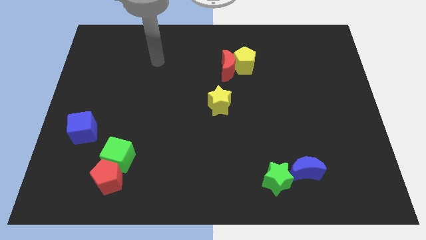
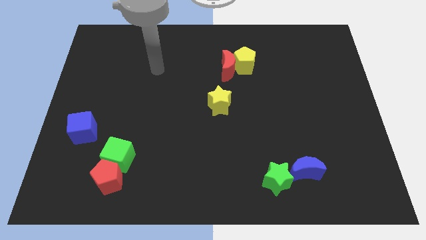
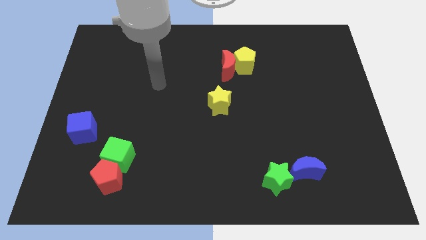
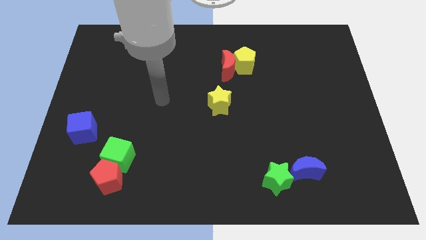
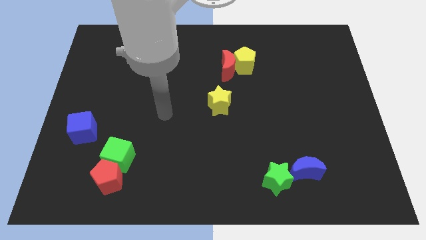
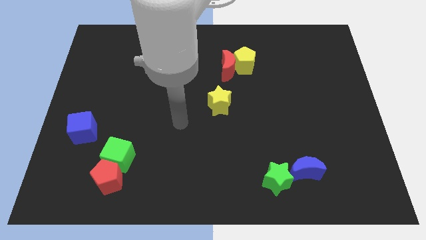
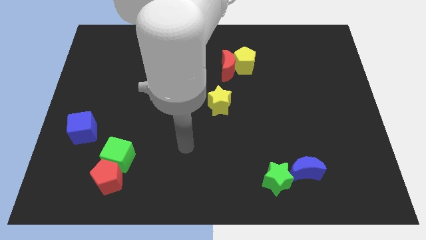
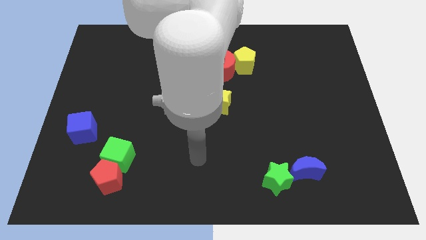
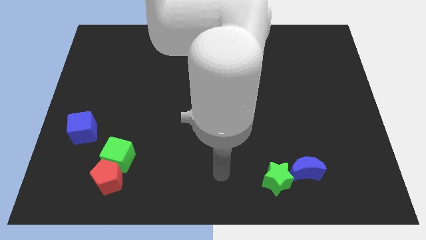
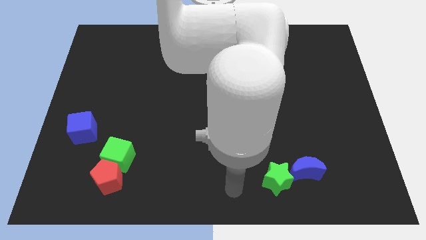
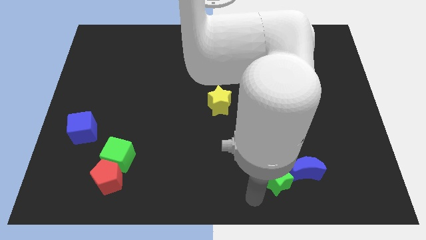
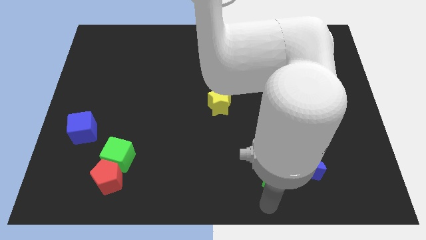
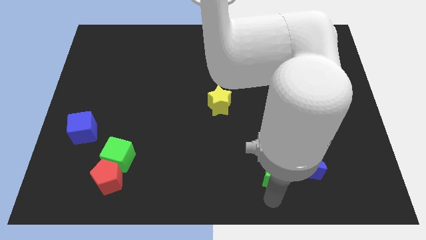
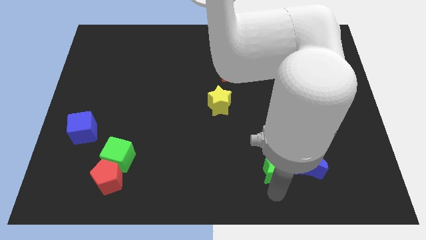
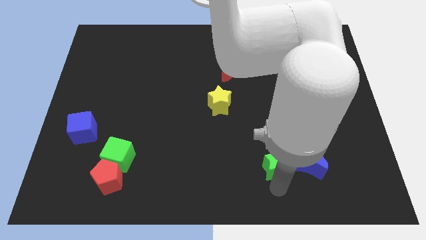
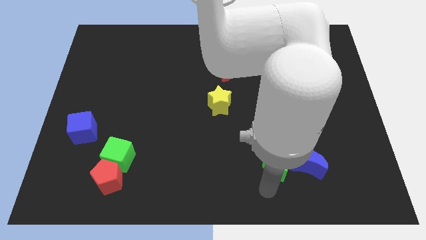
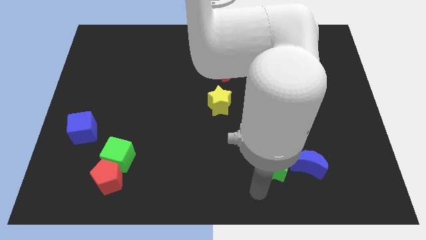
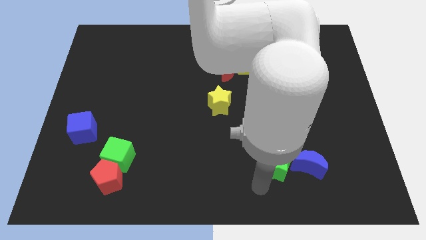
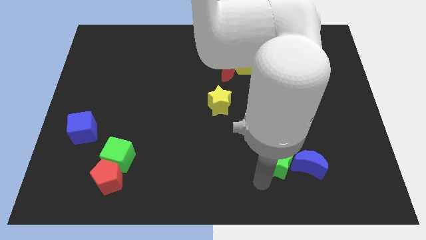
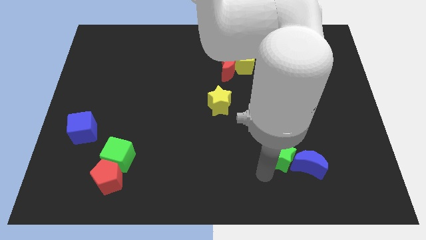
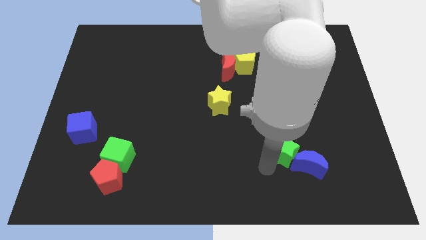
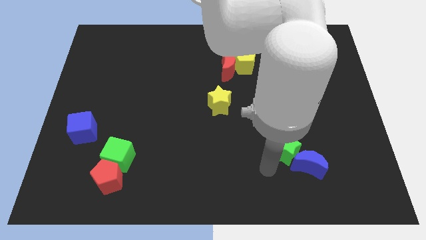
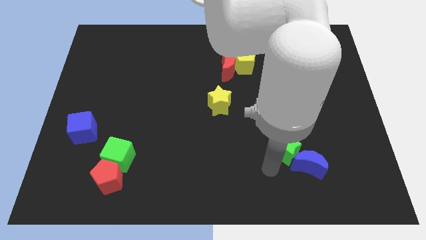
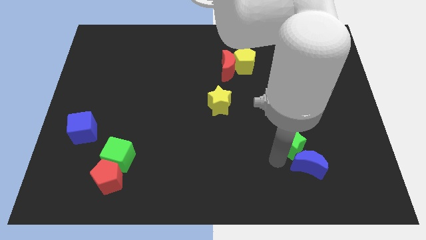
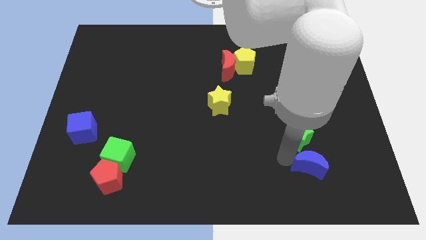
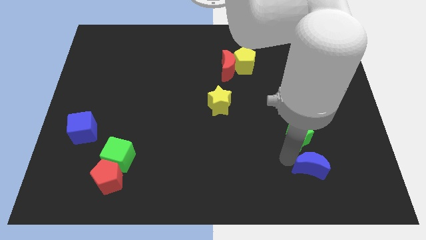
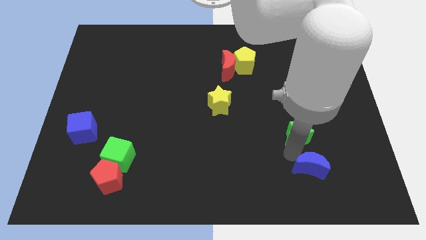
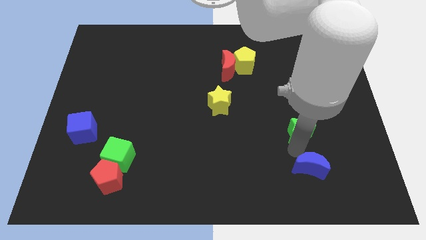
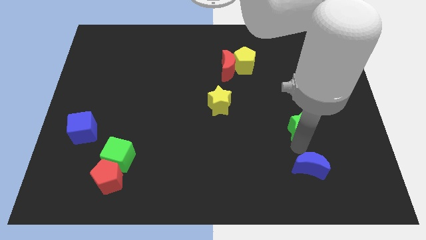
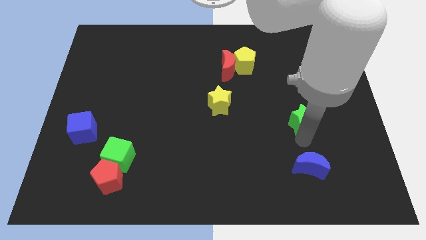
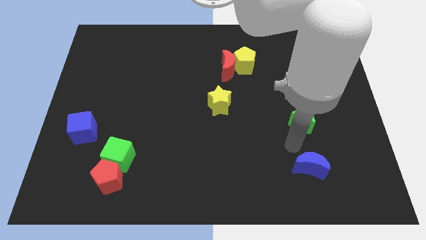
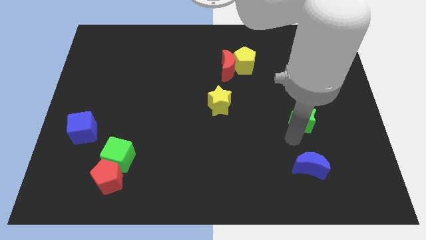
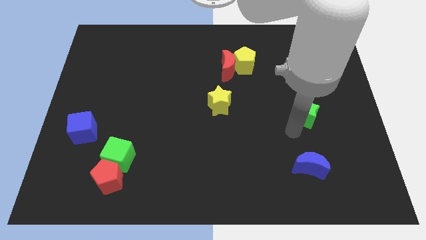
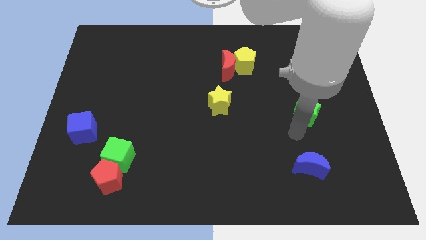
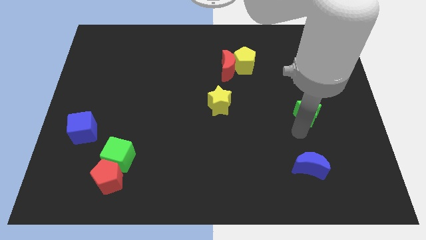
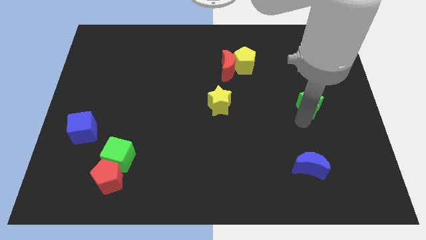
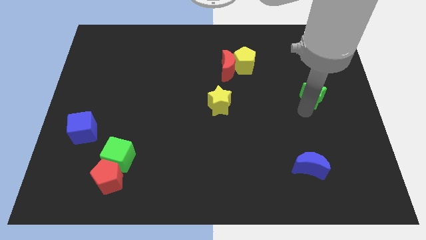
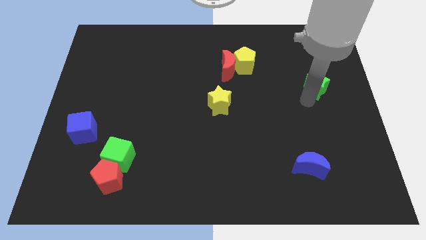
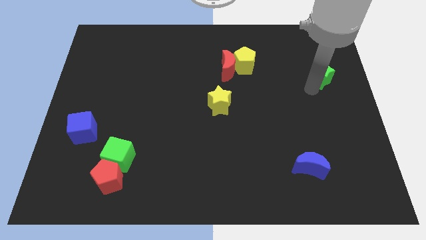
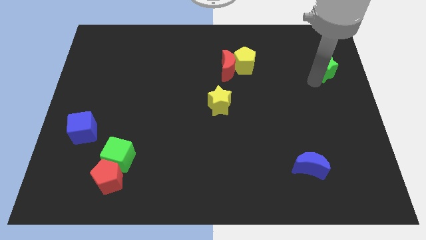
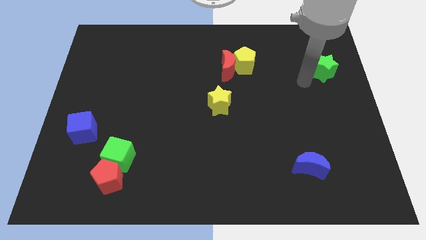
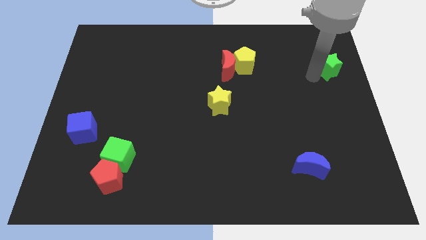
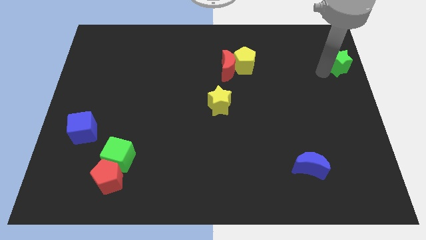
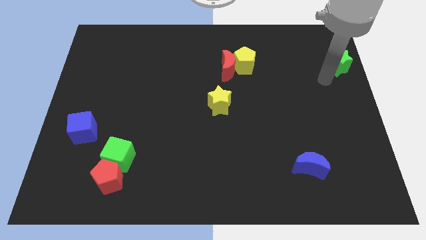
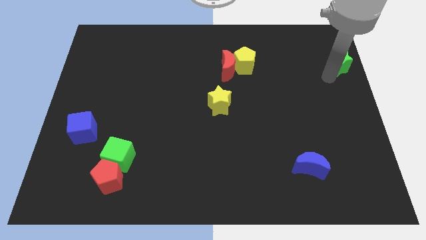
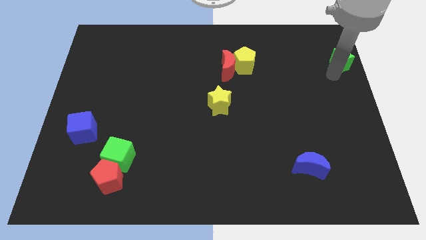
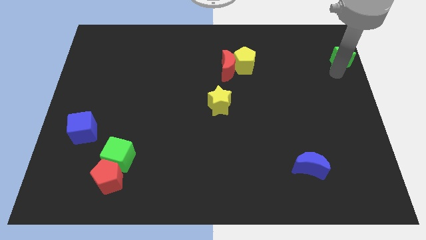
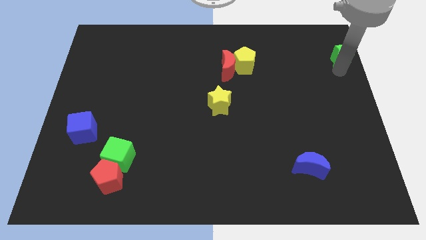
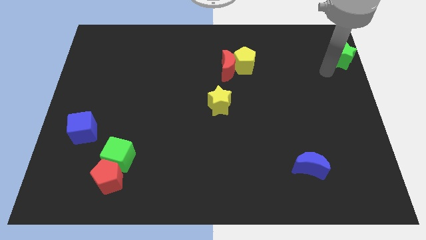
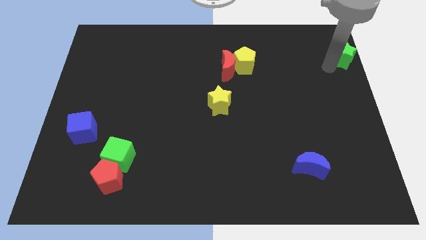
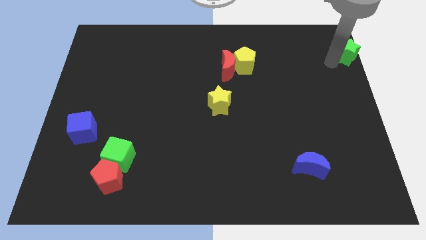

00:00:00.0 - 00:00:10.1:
put the green star to the top right of the board

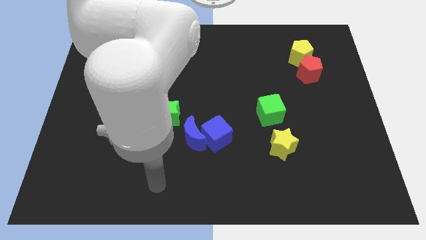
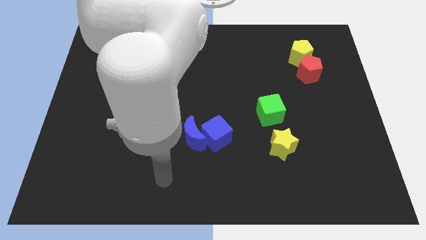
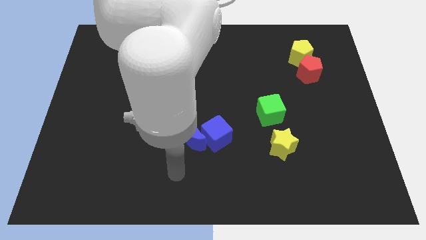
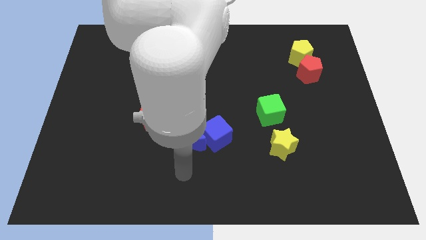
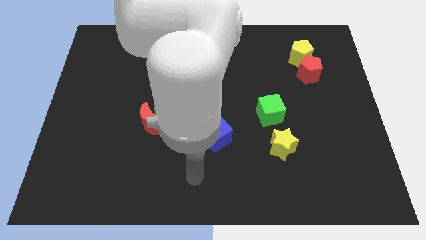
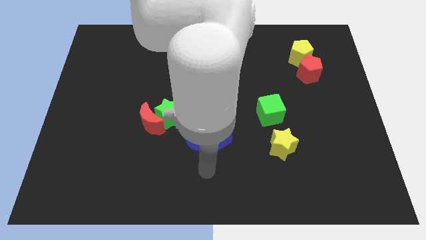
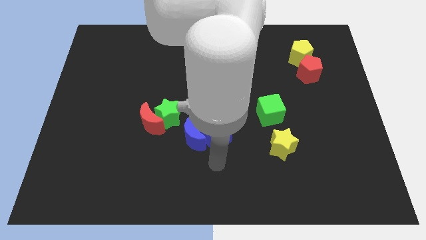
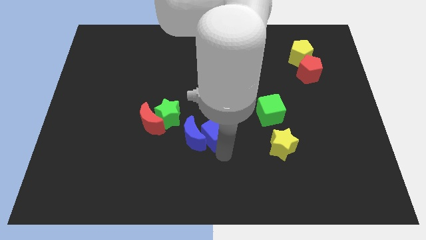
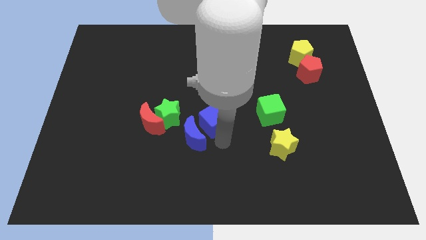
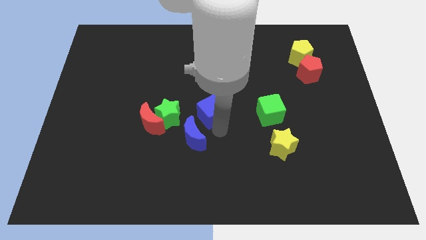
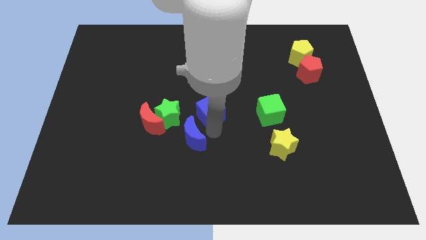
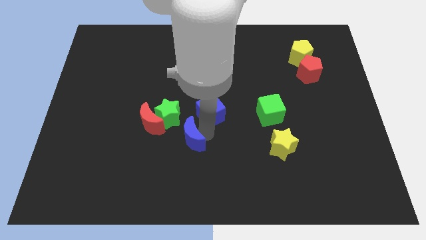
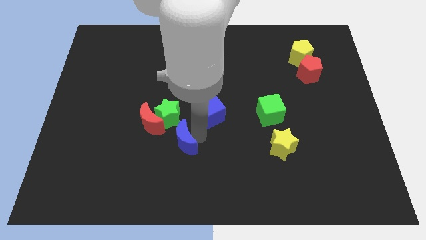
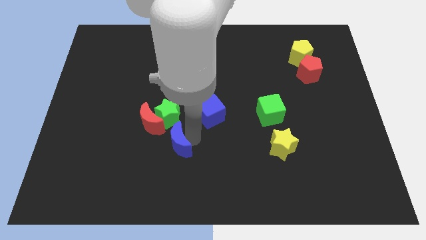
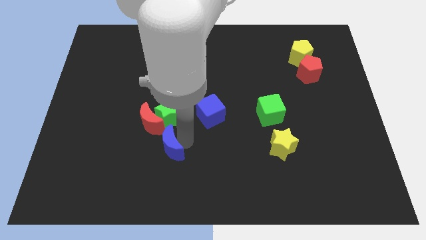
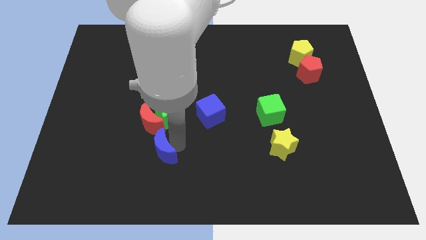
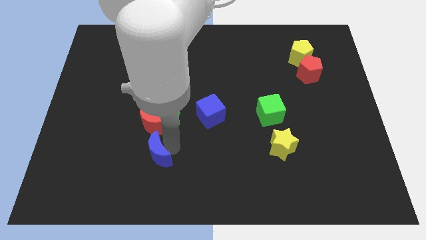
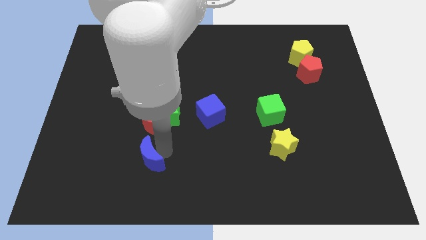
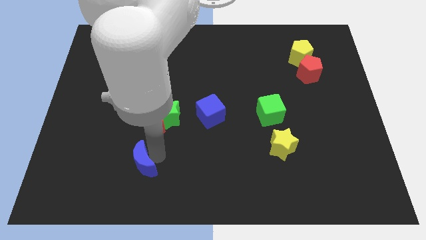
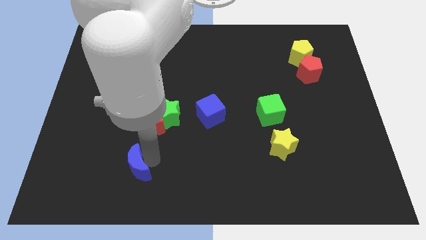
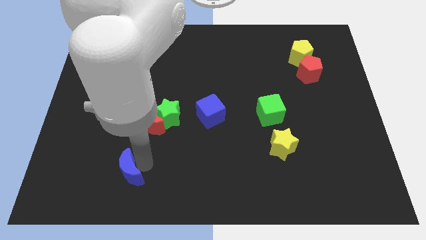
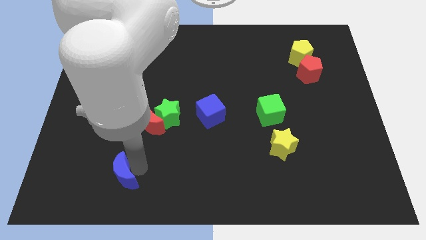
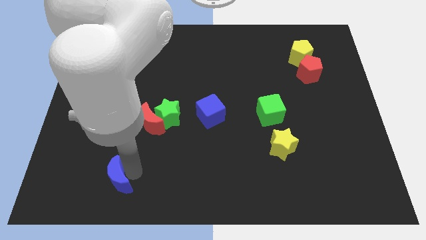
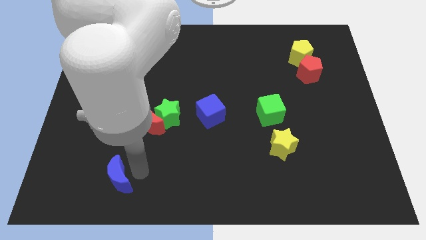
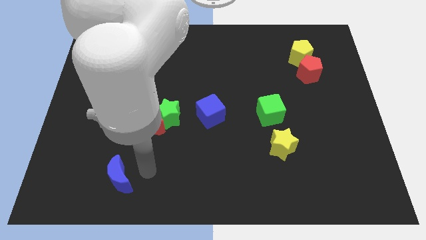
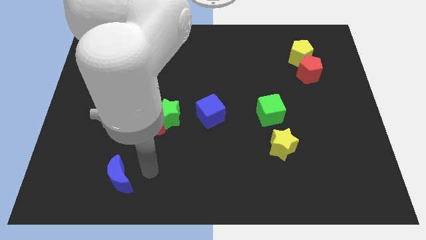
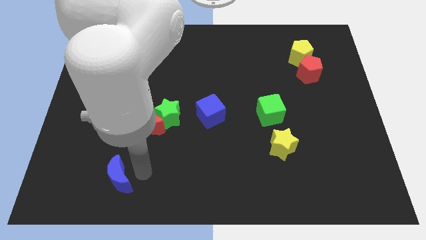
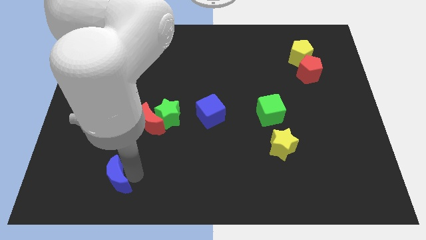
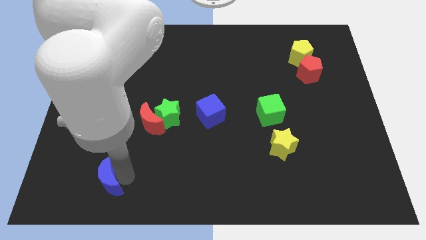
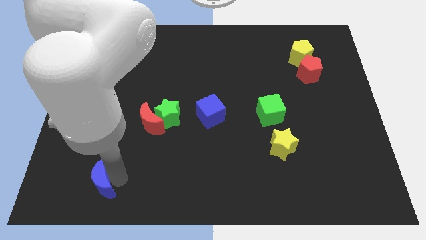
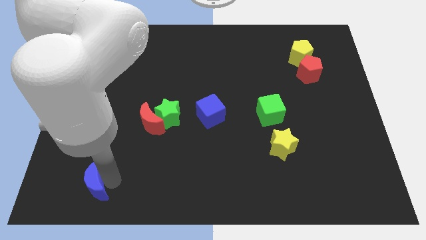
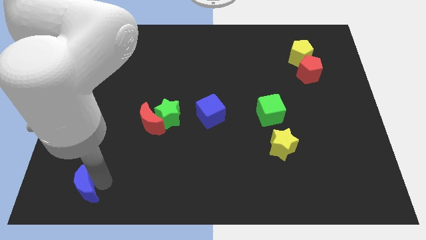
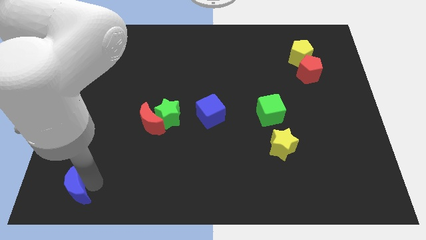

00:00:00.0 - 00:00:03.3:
push the blue moon to the bottom left corner
